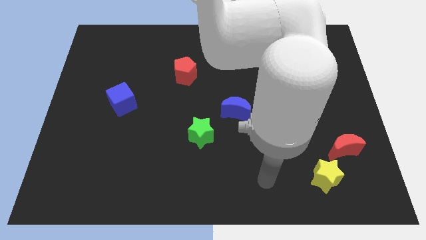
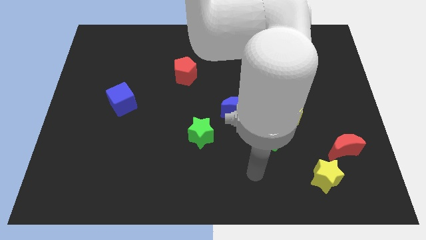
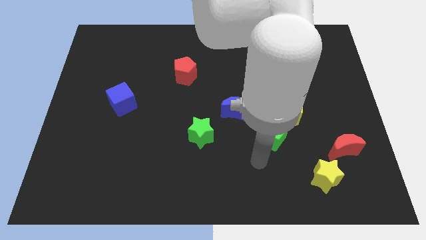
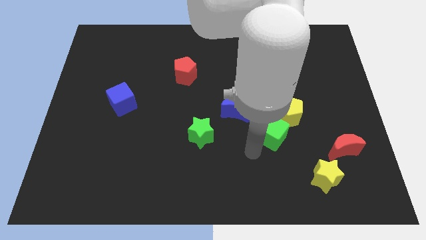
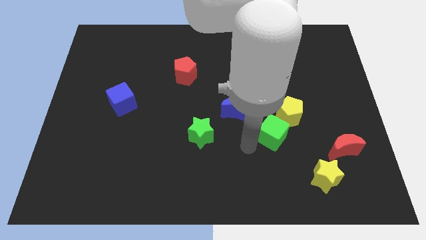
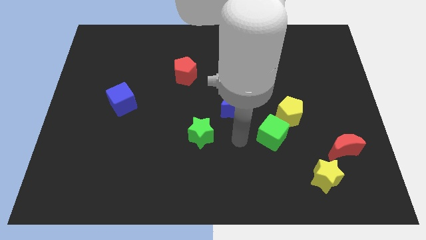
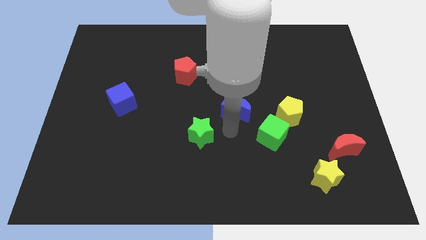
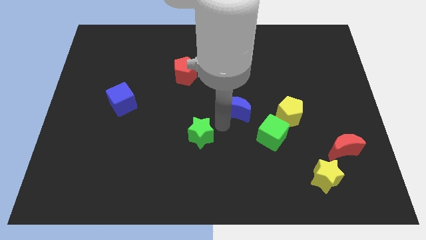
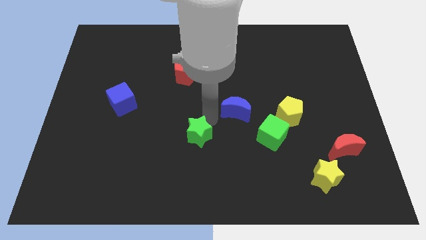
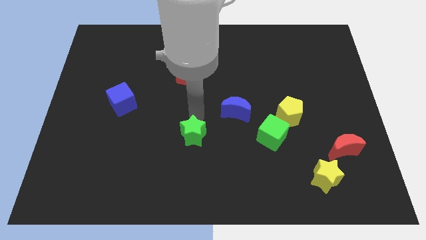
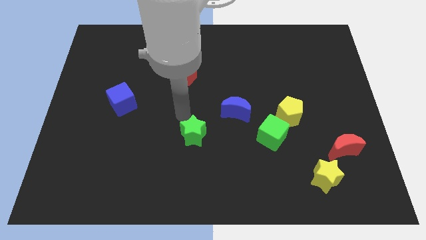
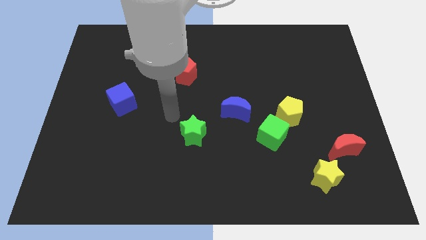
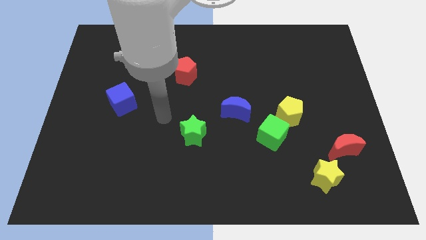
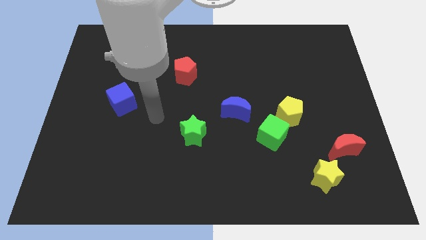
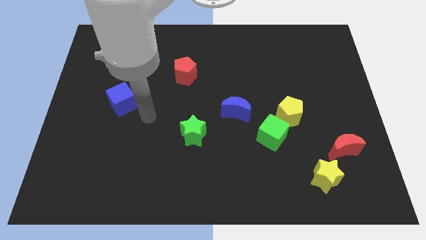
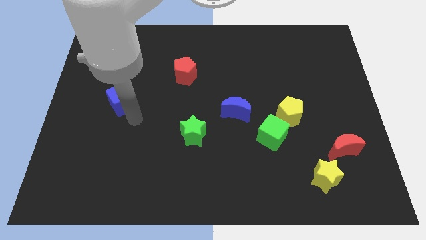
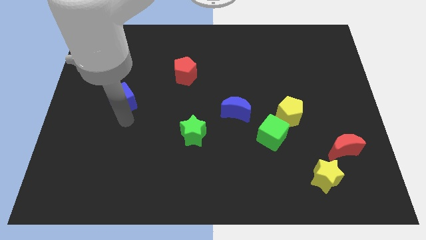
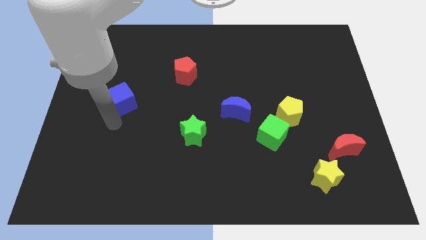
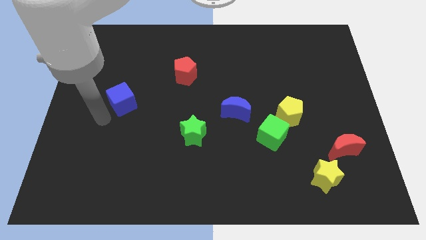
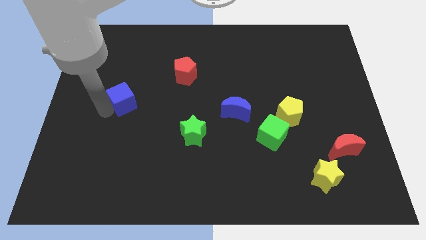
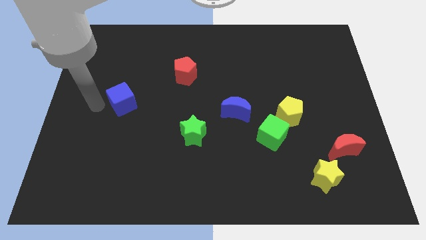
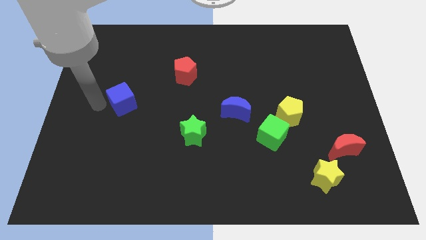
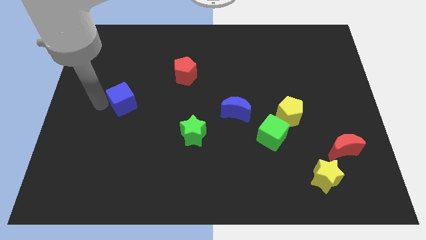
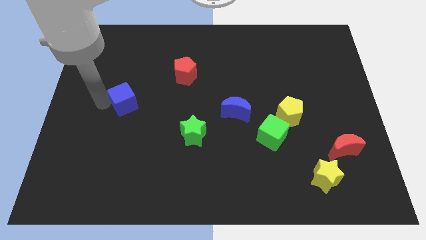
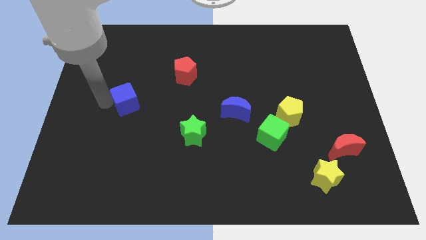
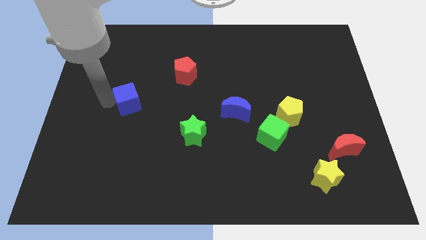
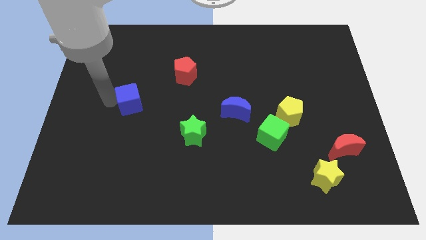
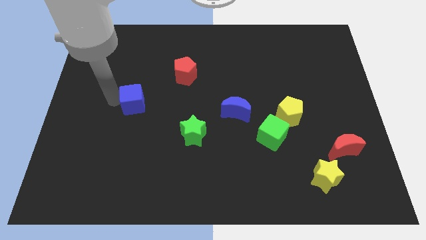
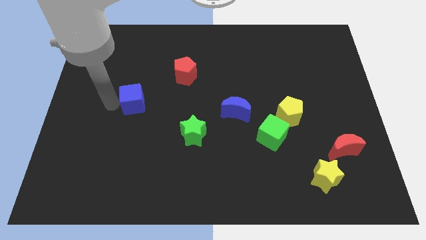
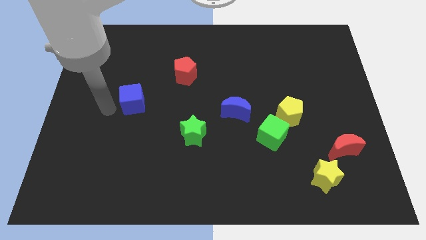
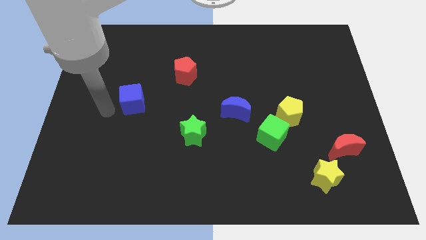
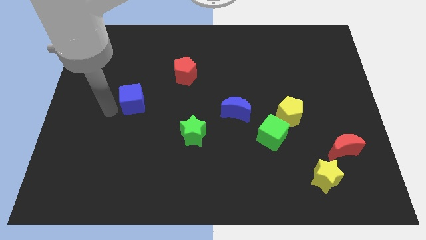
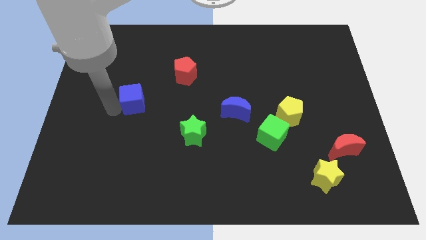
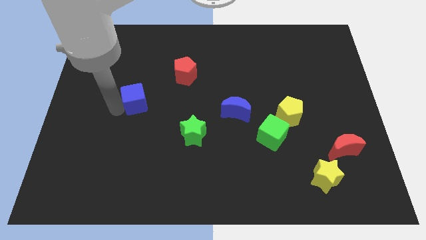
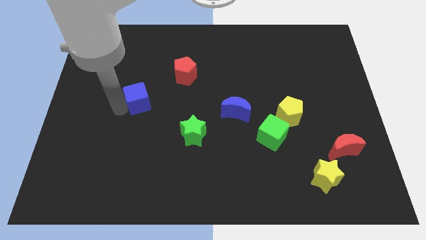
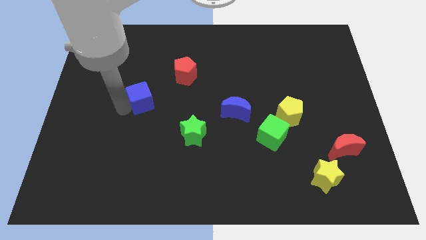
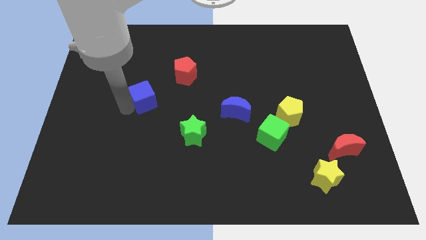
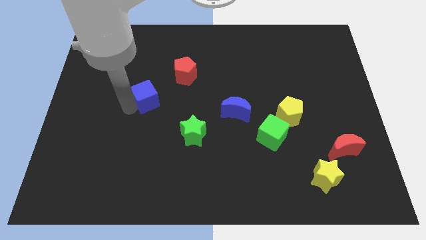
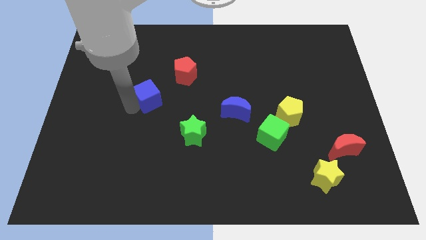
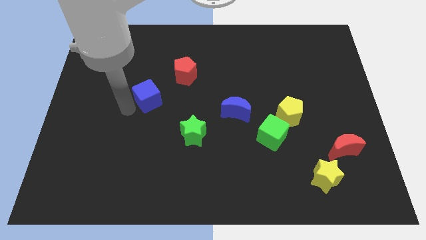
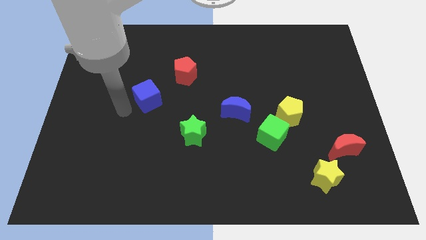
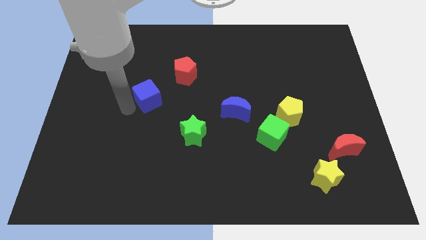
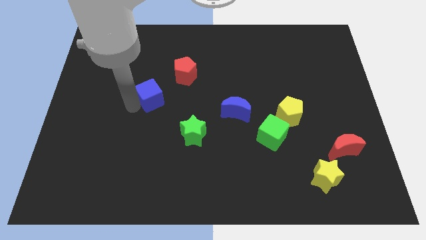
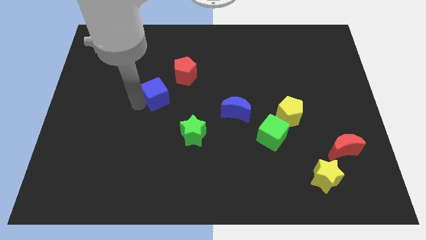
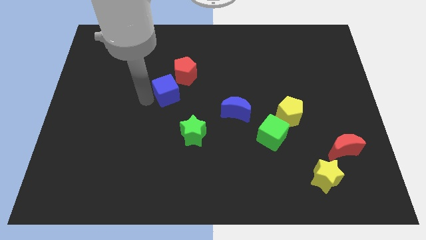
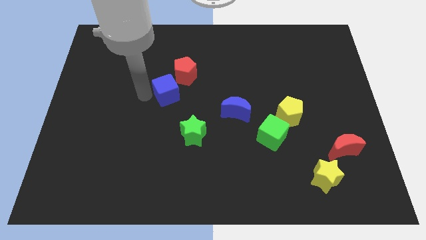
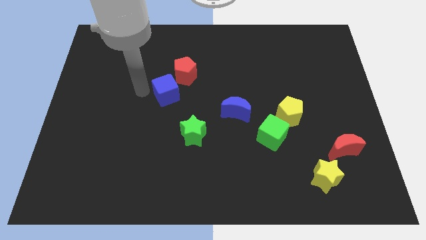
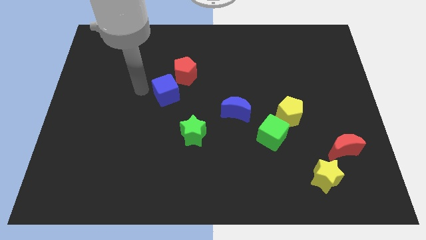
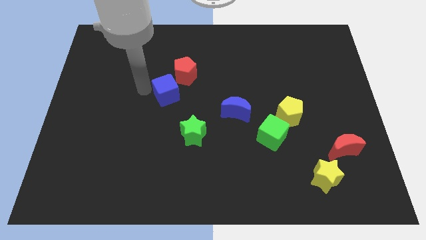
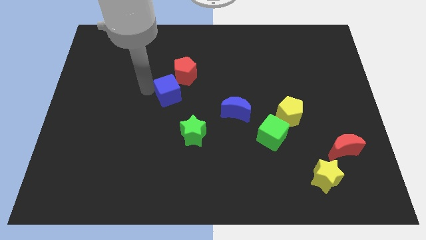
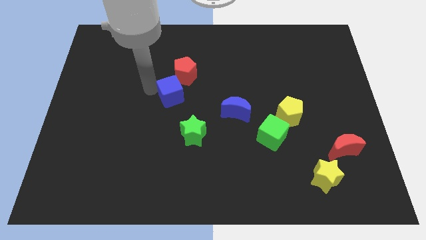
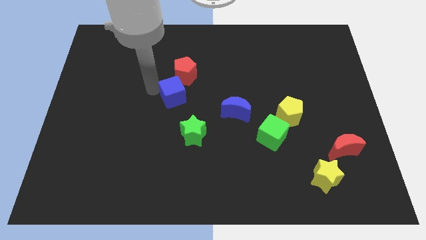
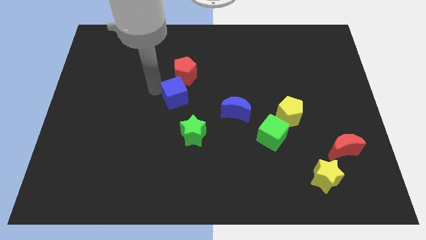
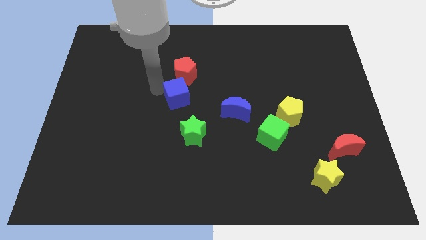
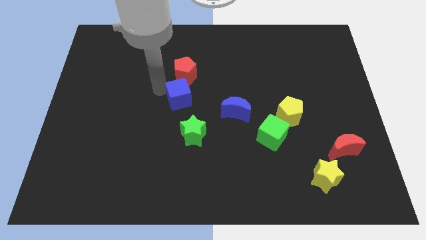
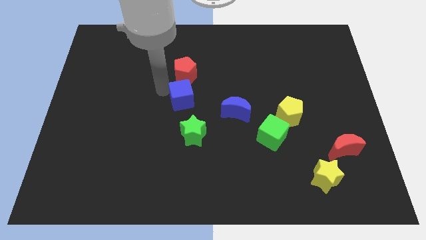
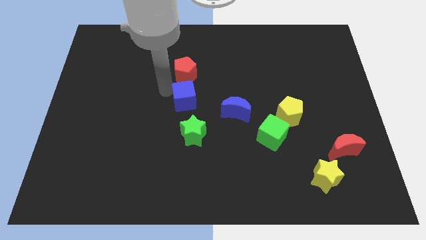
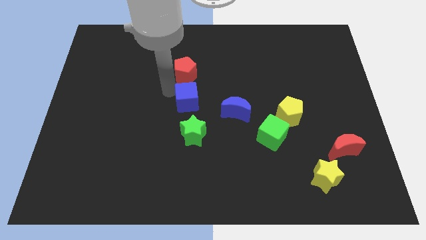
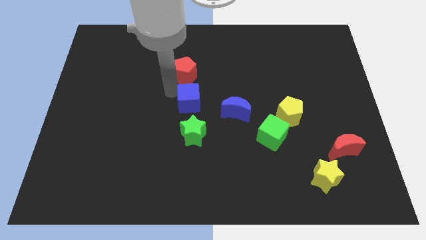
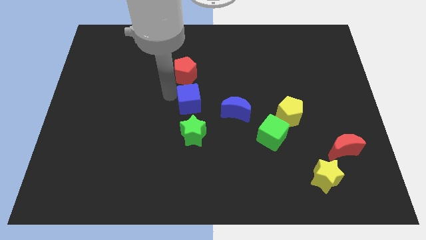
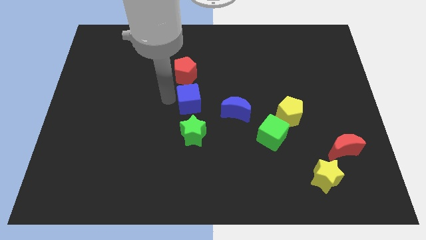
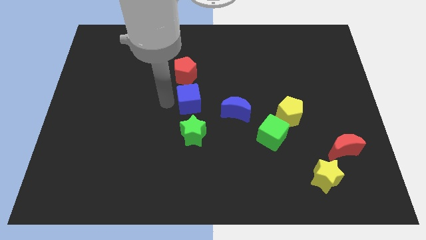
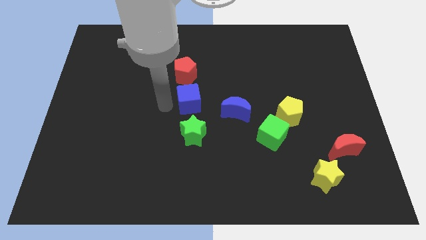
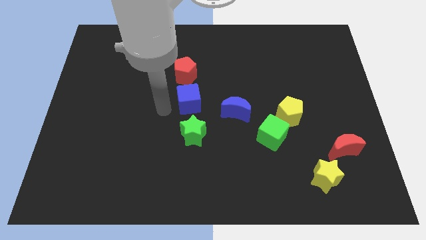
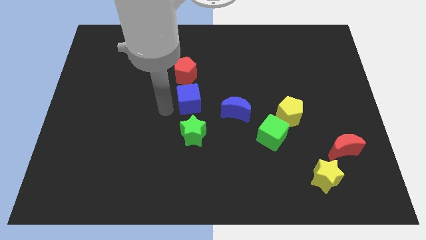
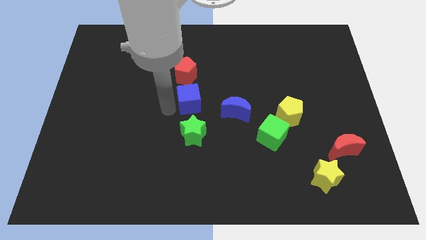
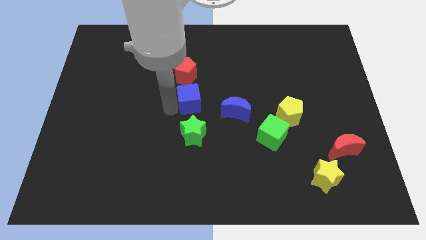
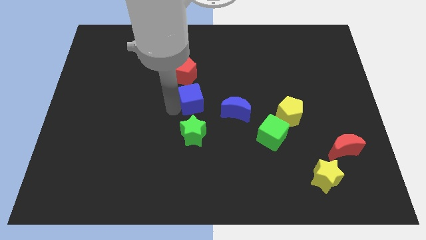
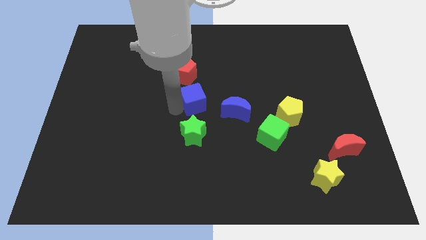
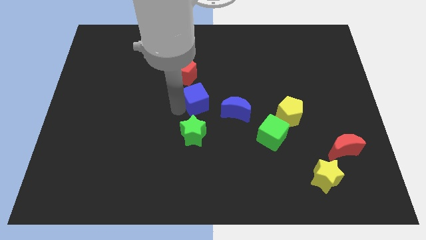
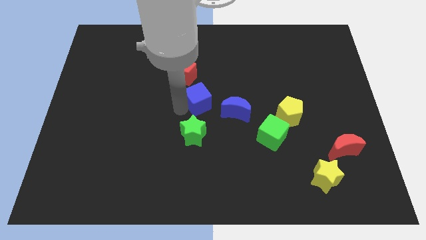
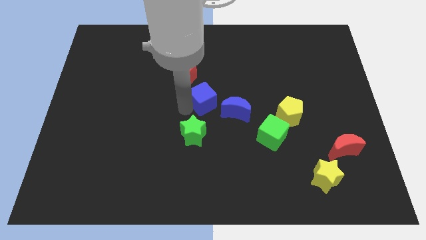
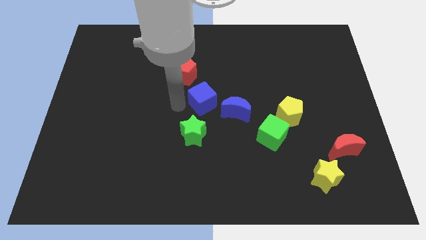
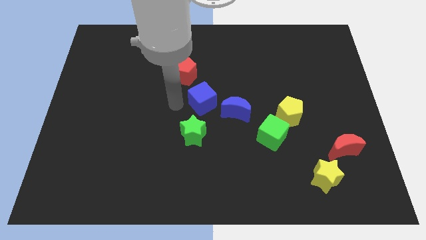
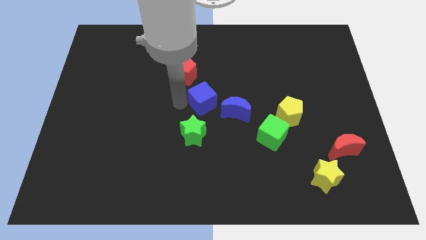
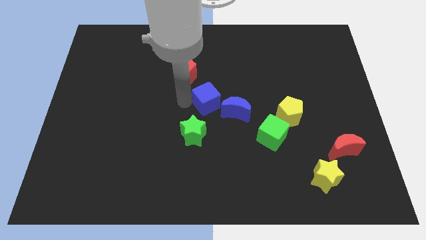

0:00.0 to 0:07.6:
slide the blue cube right
